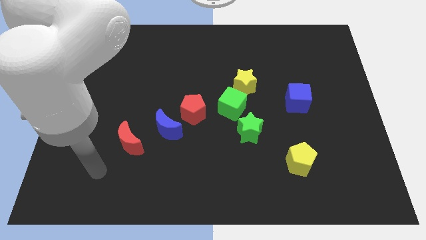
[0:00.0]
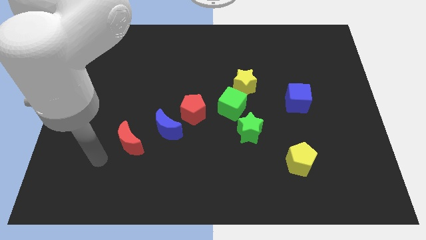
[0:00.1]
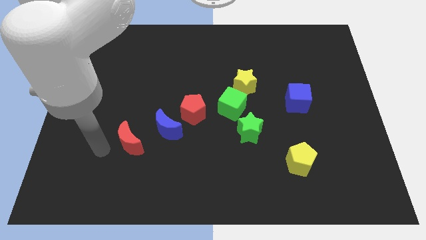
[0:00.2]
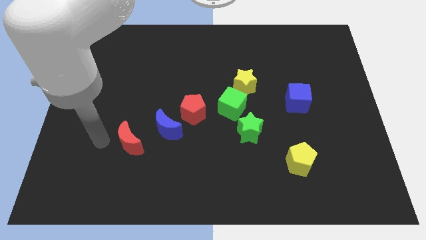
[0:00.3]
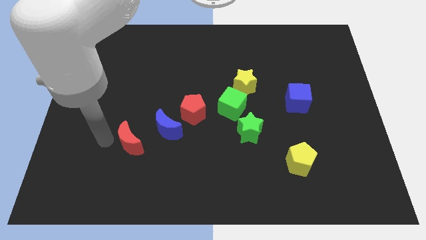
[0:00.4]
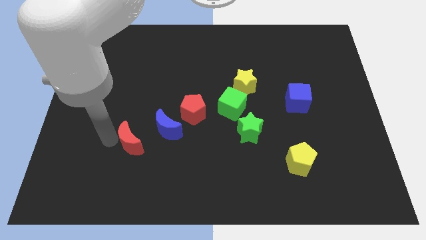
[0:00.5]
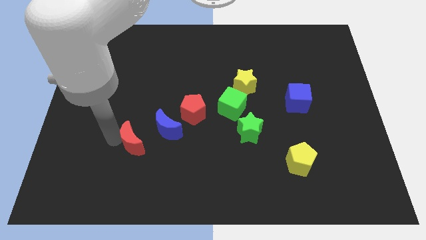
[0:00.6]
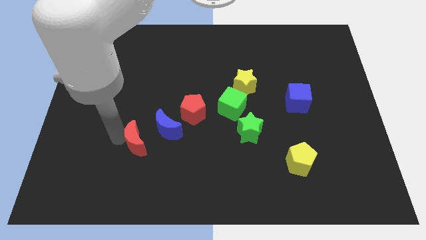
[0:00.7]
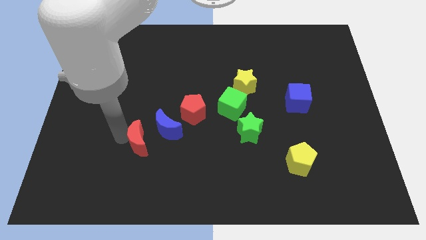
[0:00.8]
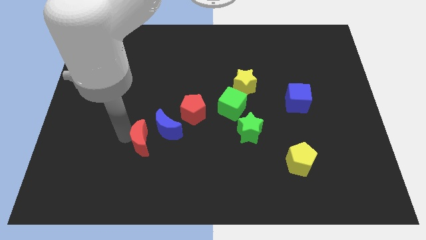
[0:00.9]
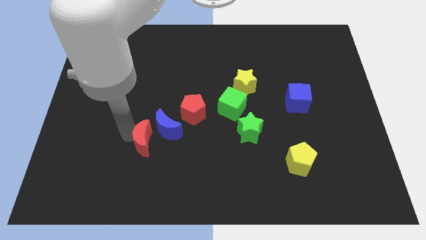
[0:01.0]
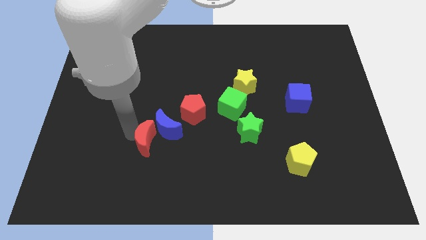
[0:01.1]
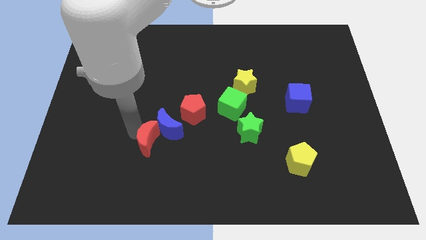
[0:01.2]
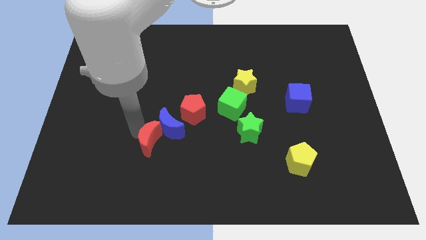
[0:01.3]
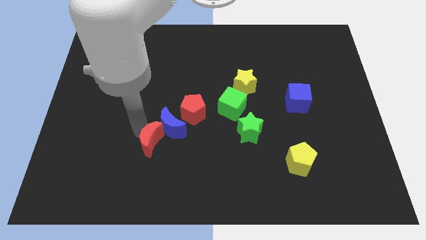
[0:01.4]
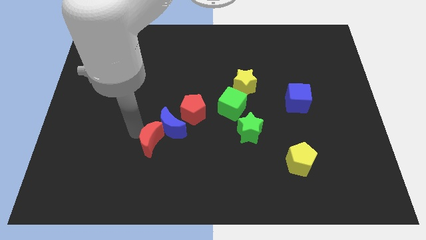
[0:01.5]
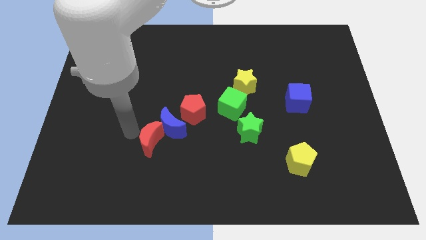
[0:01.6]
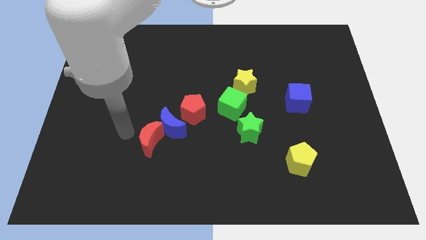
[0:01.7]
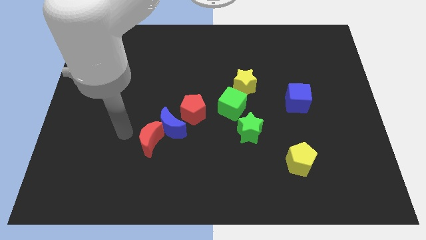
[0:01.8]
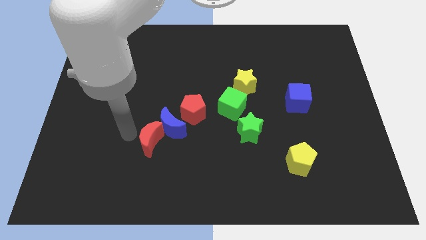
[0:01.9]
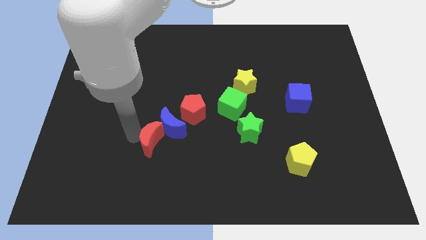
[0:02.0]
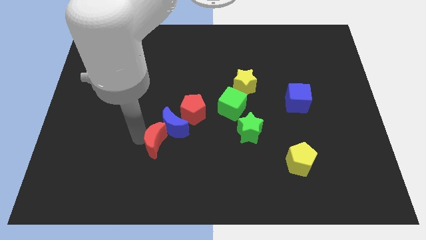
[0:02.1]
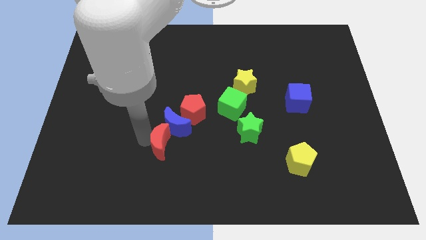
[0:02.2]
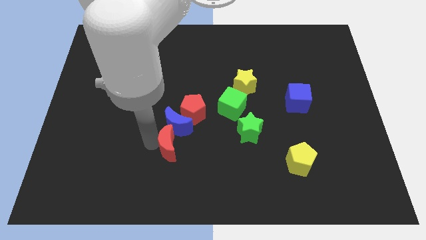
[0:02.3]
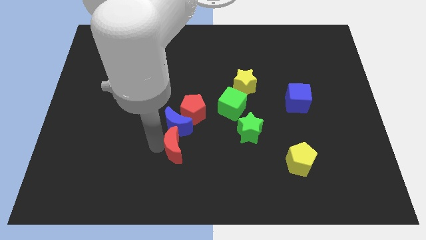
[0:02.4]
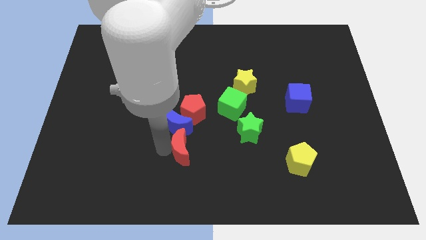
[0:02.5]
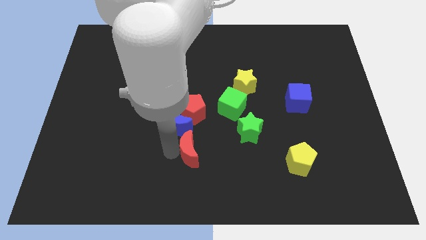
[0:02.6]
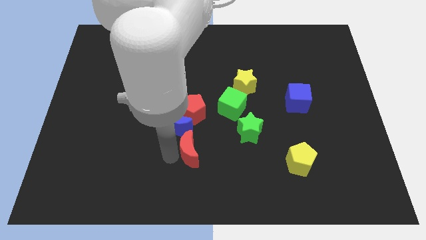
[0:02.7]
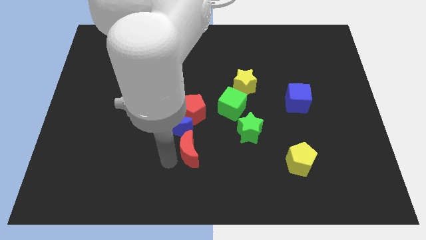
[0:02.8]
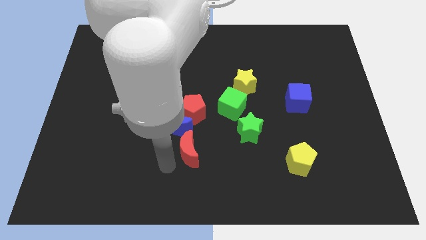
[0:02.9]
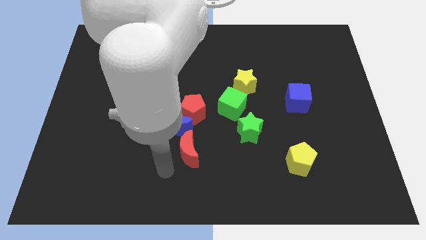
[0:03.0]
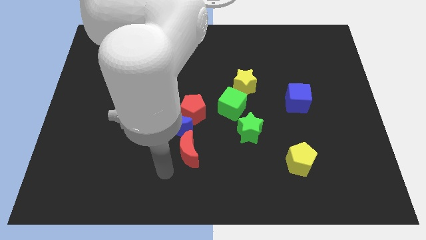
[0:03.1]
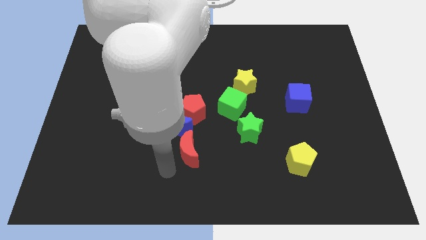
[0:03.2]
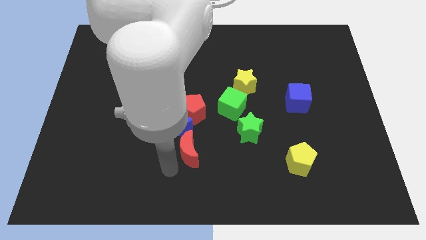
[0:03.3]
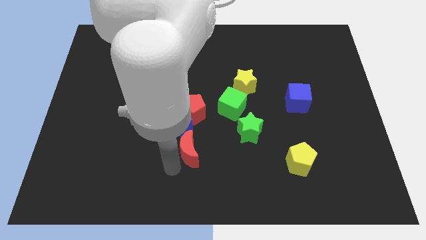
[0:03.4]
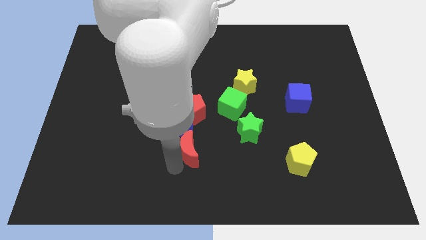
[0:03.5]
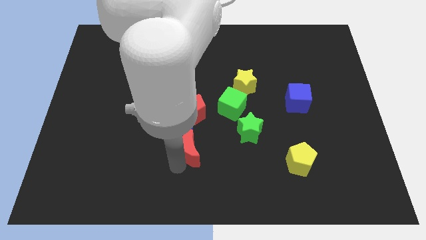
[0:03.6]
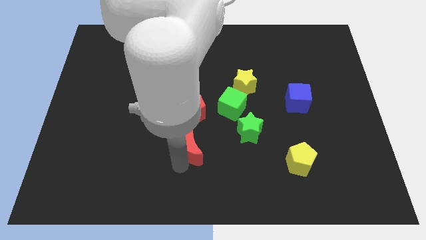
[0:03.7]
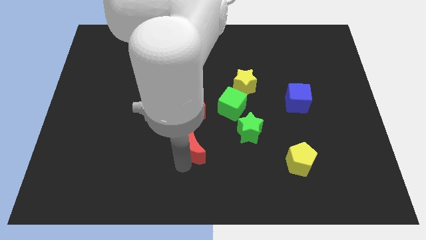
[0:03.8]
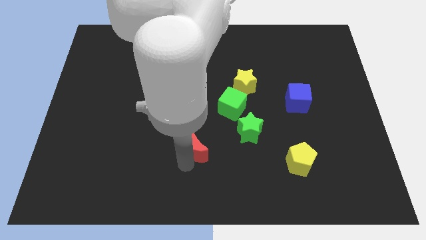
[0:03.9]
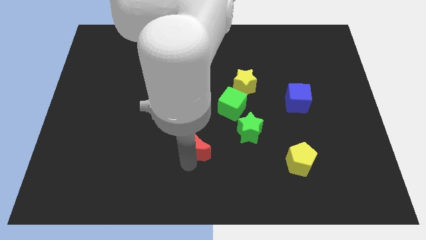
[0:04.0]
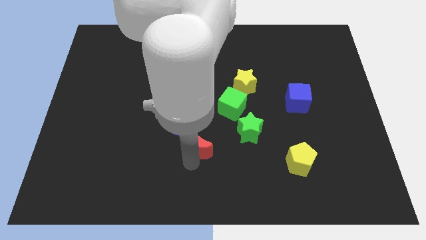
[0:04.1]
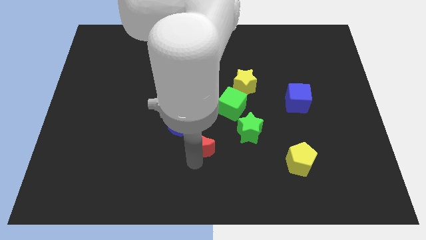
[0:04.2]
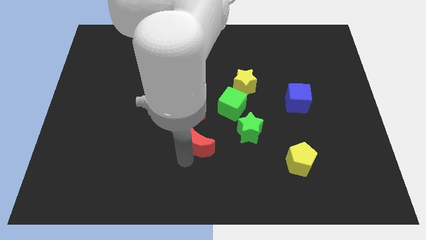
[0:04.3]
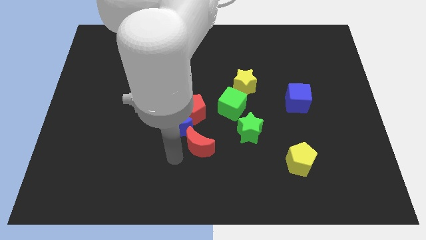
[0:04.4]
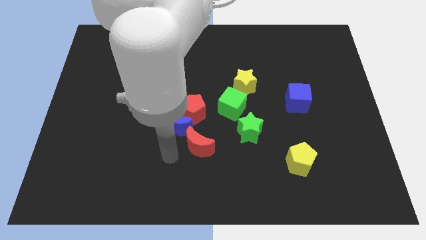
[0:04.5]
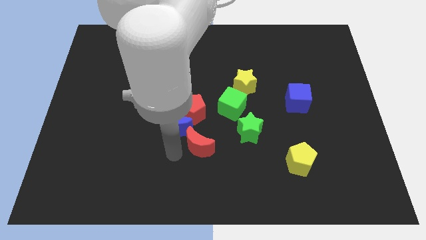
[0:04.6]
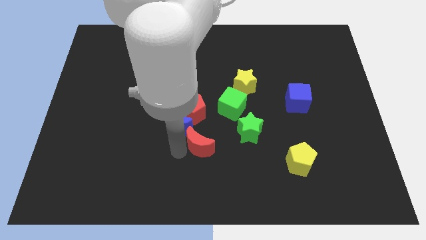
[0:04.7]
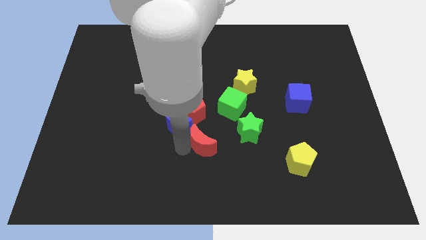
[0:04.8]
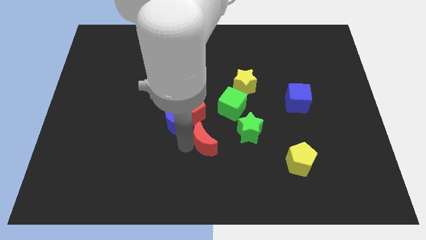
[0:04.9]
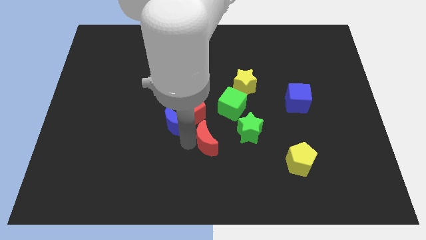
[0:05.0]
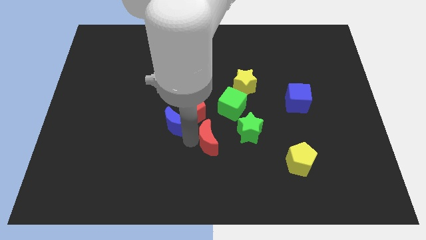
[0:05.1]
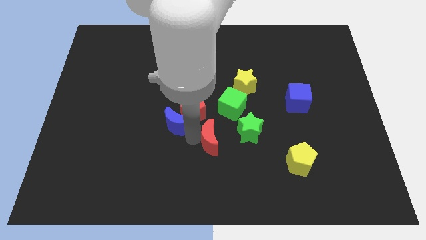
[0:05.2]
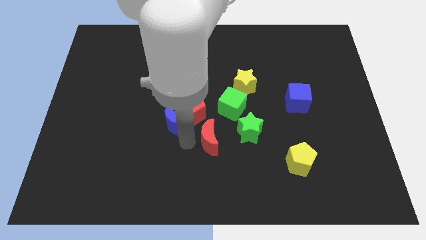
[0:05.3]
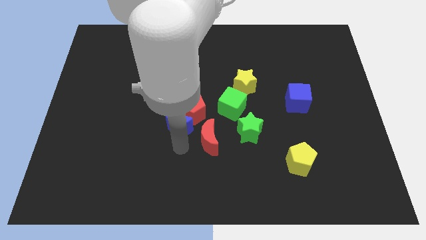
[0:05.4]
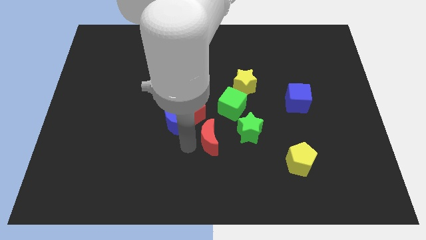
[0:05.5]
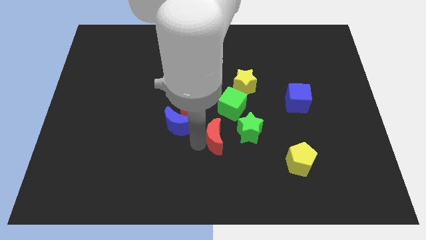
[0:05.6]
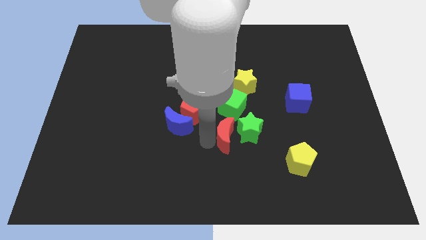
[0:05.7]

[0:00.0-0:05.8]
move the red moon to the green star

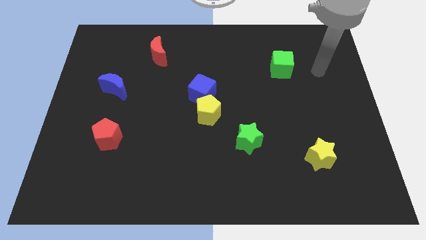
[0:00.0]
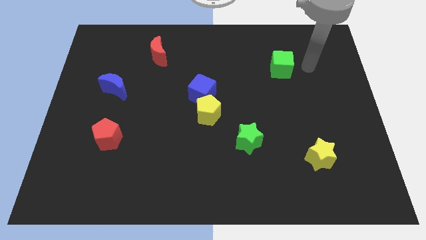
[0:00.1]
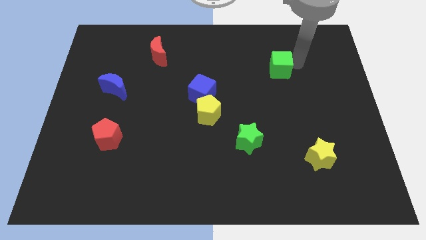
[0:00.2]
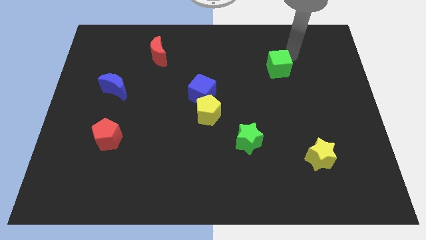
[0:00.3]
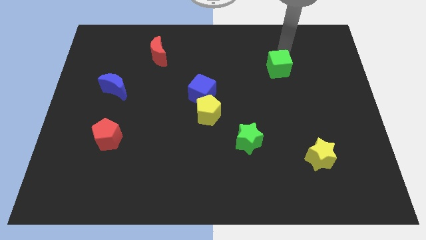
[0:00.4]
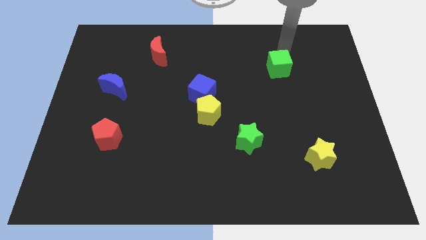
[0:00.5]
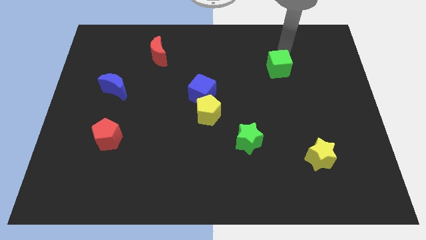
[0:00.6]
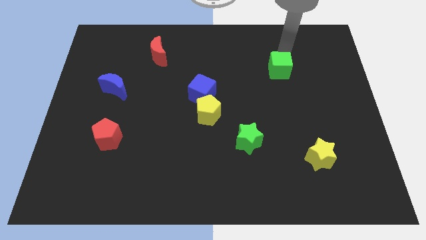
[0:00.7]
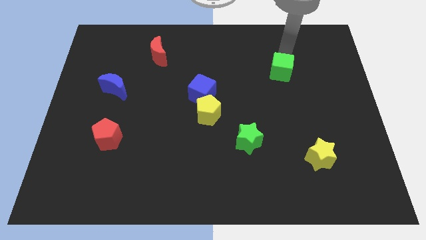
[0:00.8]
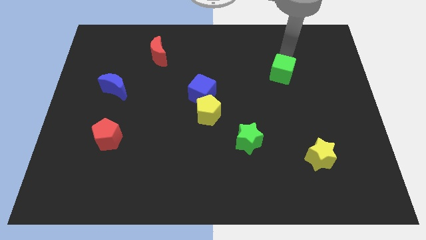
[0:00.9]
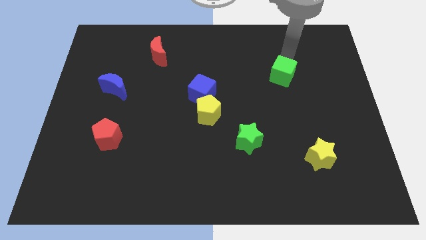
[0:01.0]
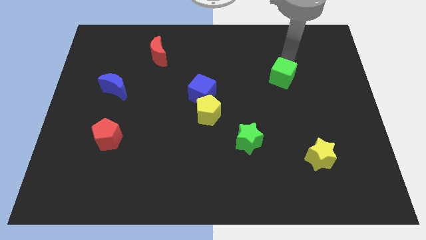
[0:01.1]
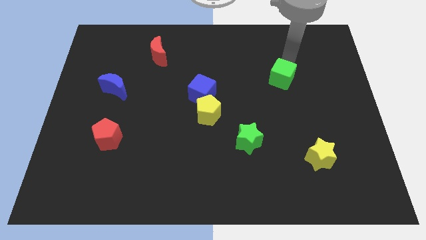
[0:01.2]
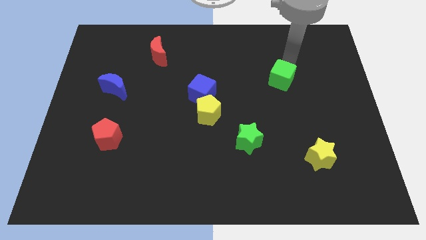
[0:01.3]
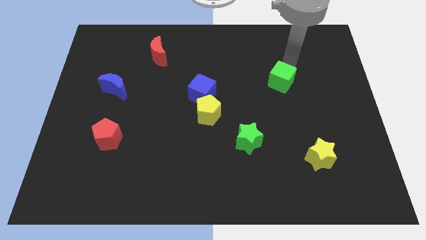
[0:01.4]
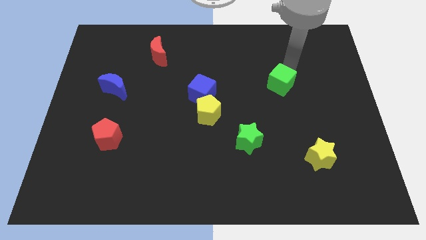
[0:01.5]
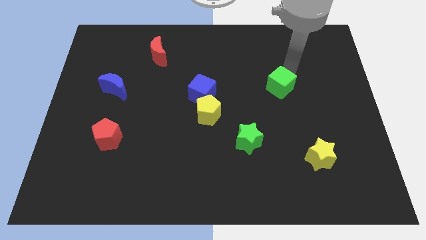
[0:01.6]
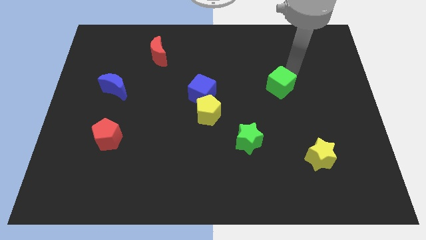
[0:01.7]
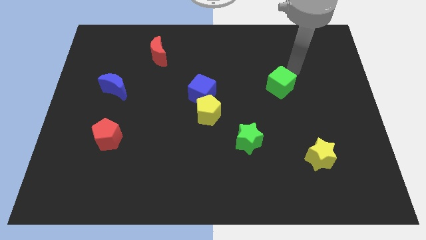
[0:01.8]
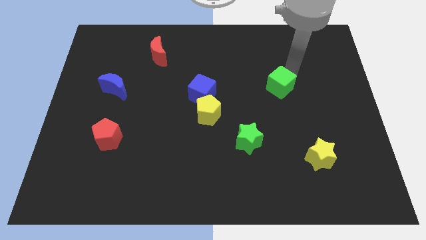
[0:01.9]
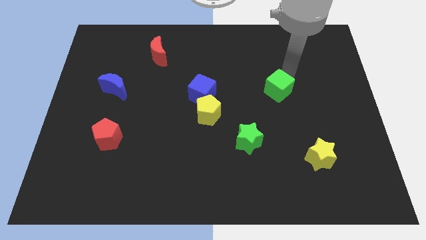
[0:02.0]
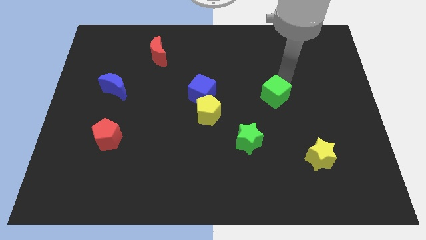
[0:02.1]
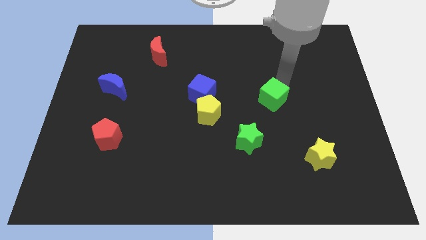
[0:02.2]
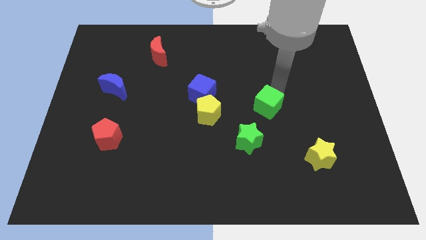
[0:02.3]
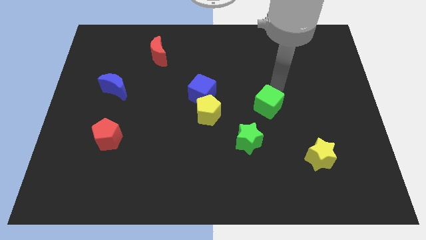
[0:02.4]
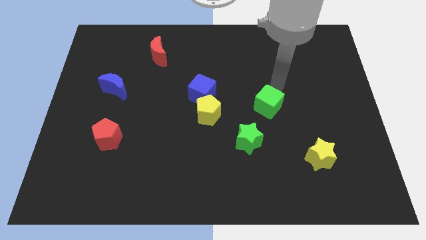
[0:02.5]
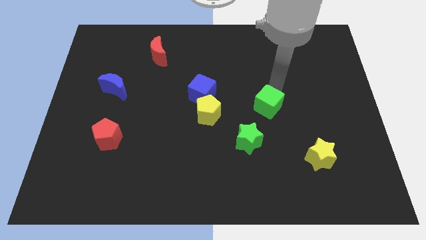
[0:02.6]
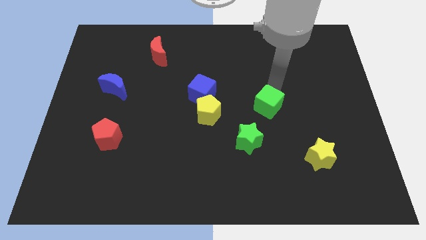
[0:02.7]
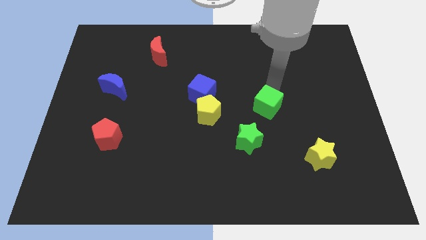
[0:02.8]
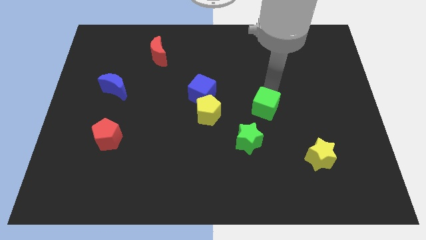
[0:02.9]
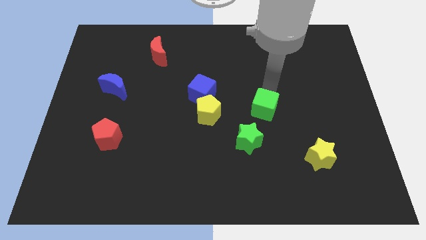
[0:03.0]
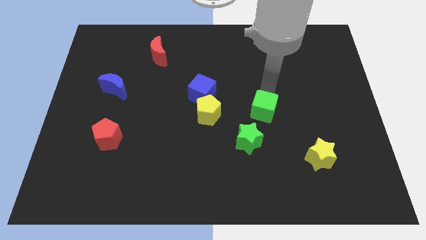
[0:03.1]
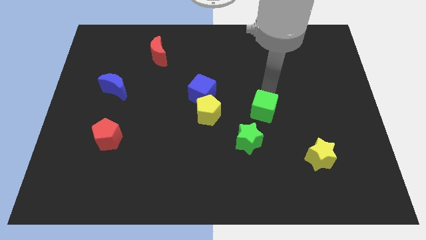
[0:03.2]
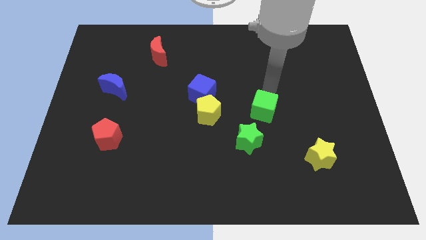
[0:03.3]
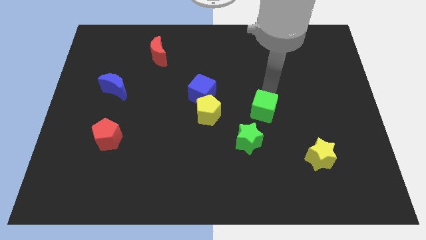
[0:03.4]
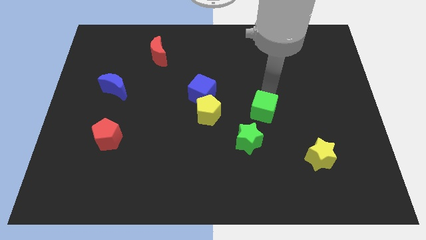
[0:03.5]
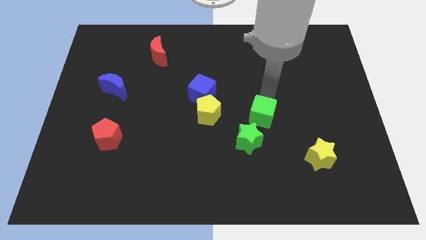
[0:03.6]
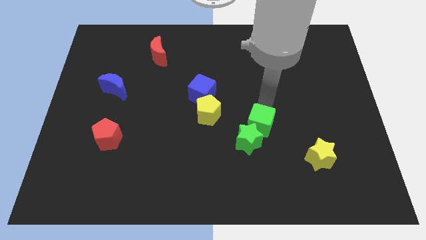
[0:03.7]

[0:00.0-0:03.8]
slide the green cube close to the green star
